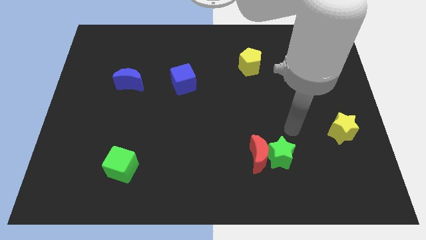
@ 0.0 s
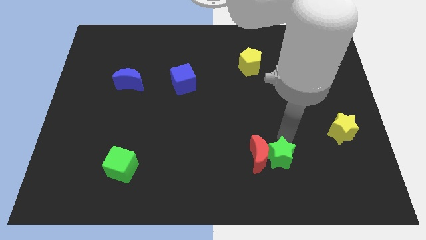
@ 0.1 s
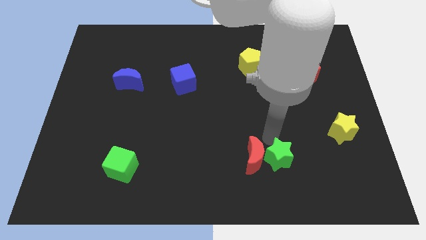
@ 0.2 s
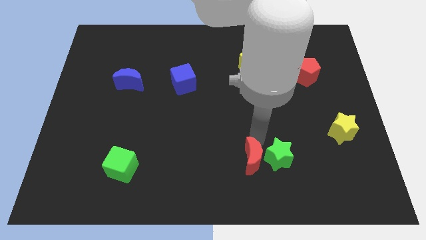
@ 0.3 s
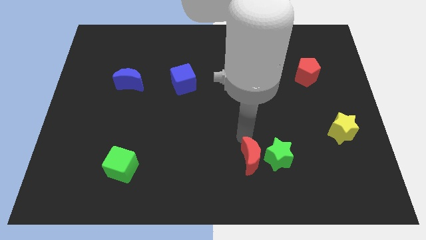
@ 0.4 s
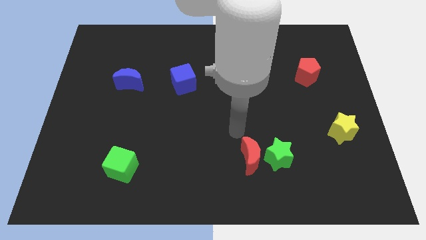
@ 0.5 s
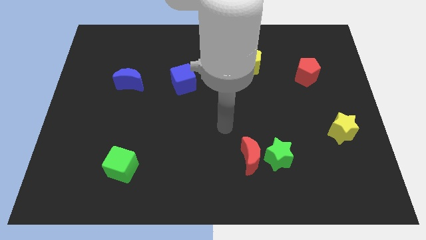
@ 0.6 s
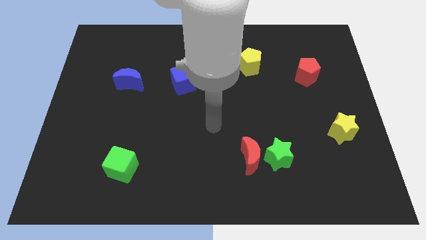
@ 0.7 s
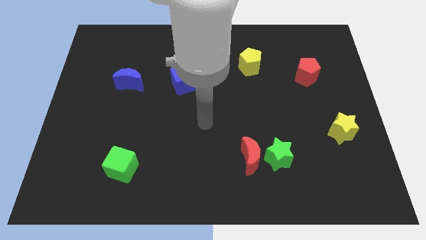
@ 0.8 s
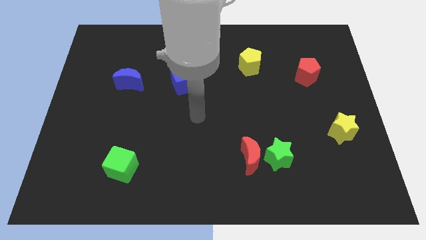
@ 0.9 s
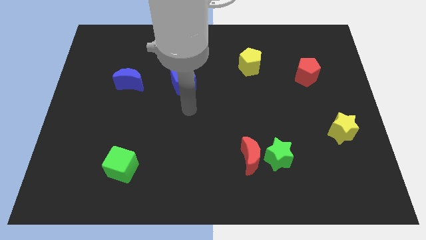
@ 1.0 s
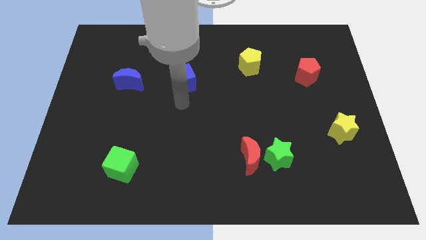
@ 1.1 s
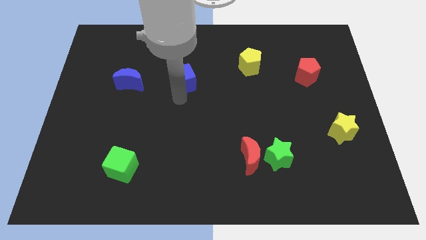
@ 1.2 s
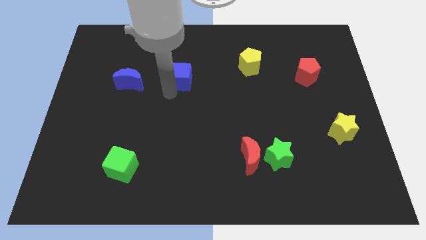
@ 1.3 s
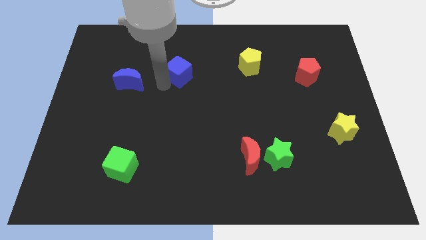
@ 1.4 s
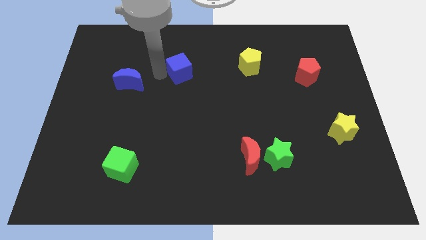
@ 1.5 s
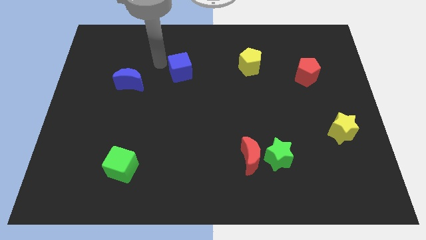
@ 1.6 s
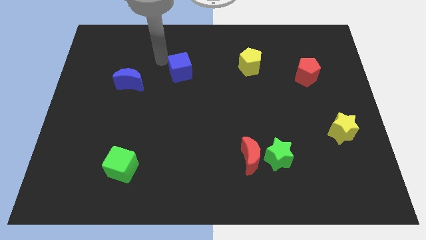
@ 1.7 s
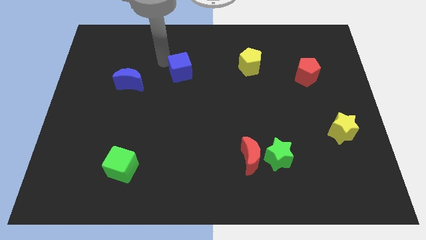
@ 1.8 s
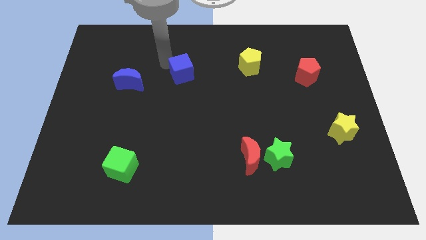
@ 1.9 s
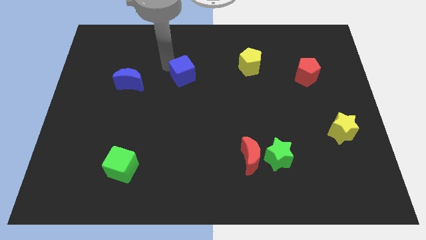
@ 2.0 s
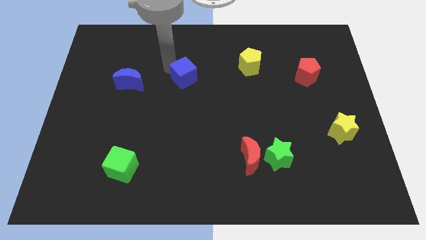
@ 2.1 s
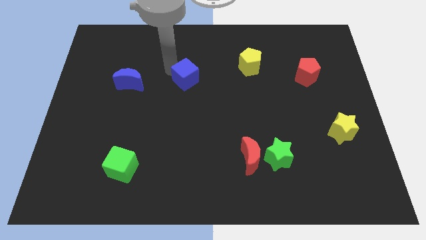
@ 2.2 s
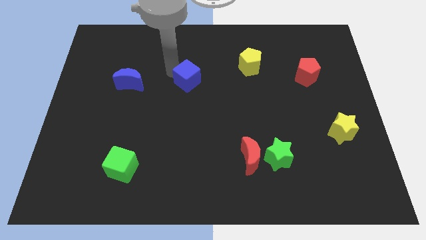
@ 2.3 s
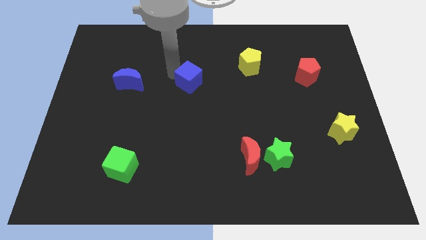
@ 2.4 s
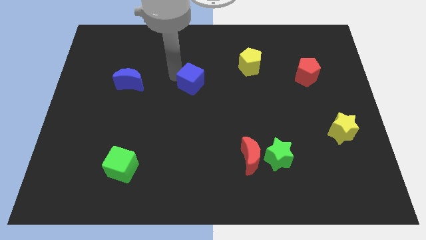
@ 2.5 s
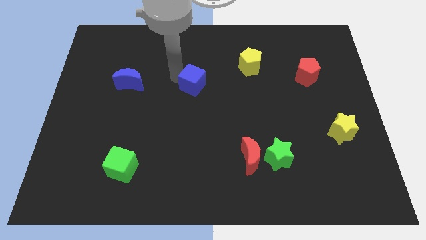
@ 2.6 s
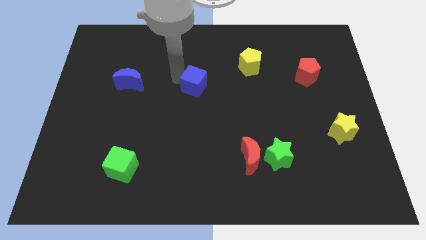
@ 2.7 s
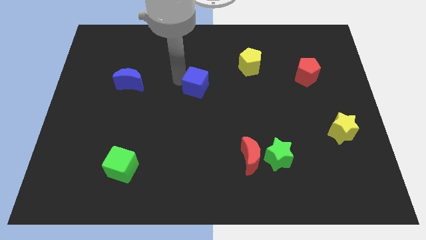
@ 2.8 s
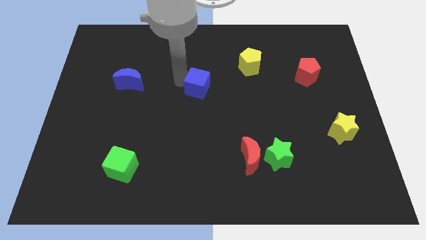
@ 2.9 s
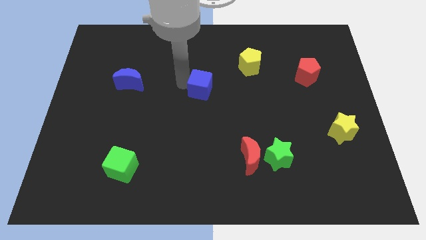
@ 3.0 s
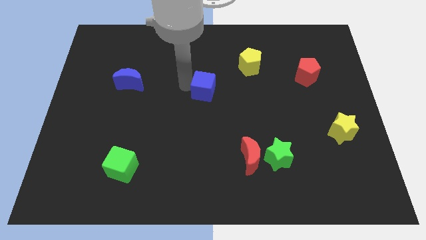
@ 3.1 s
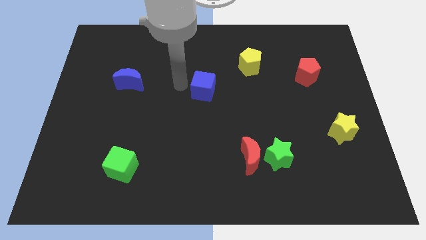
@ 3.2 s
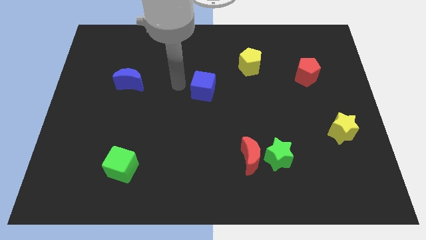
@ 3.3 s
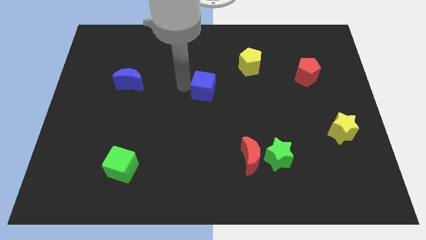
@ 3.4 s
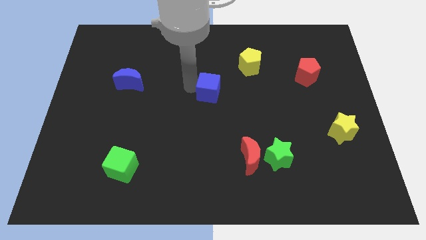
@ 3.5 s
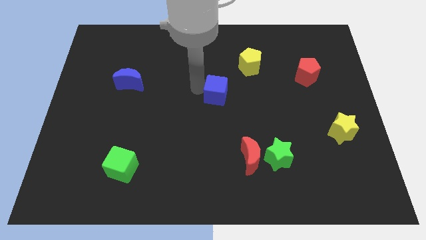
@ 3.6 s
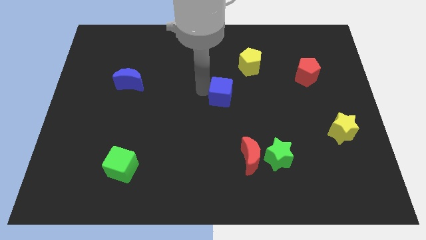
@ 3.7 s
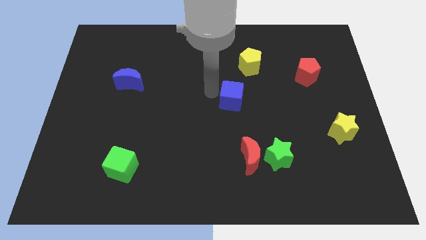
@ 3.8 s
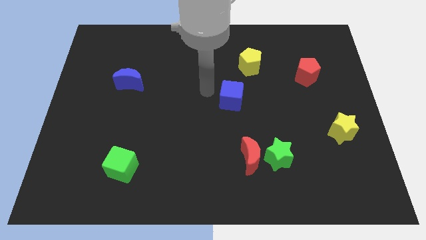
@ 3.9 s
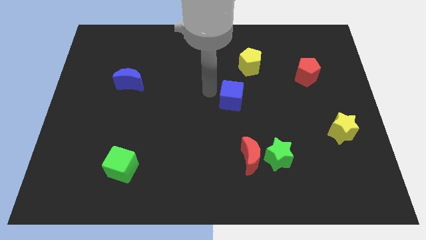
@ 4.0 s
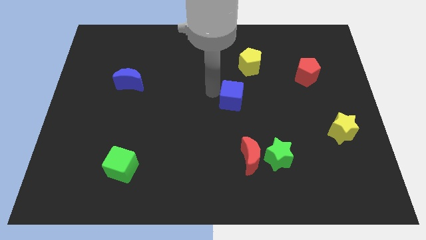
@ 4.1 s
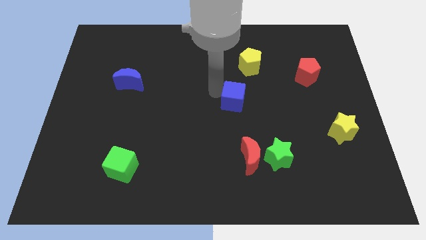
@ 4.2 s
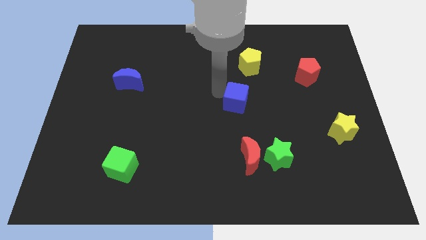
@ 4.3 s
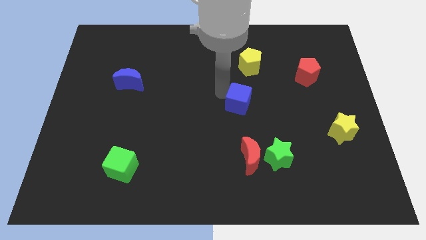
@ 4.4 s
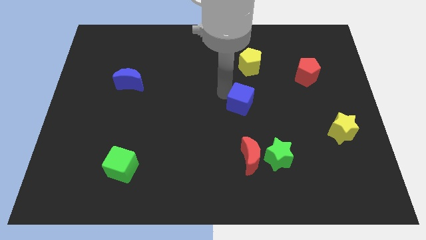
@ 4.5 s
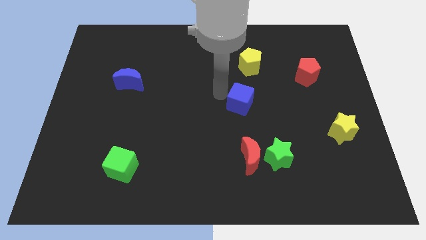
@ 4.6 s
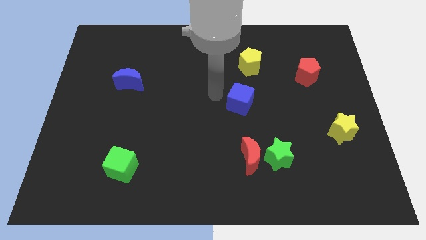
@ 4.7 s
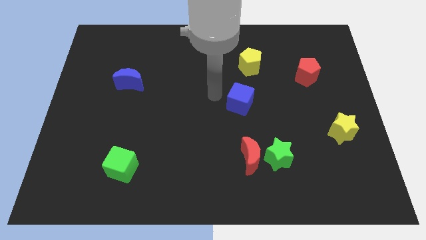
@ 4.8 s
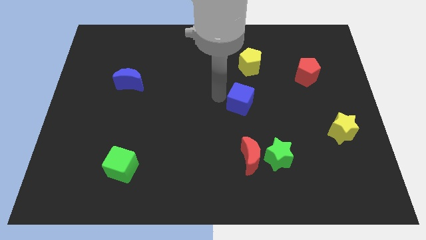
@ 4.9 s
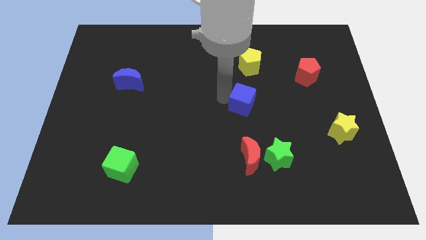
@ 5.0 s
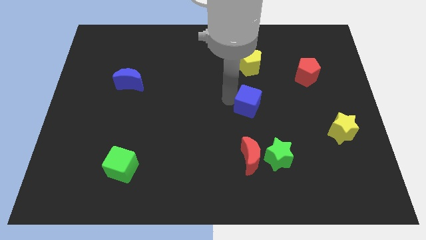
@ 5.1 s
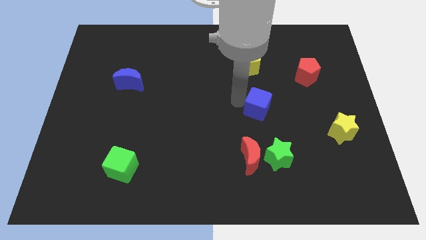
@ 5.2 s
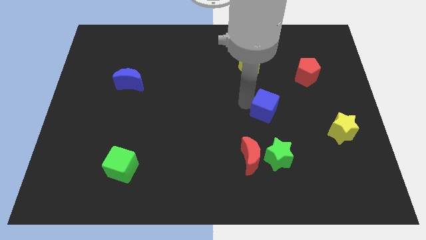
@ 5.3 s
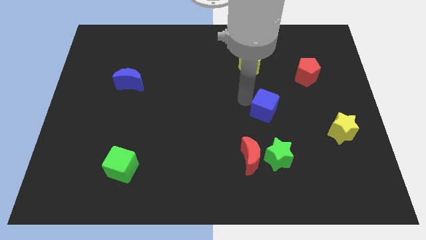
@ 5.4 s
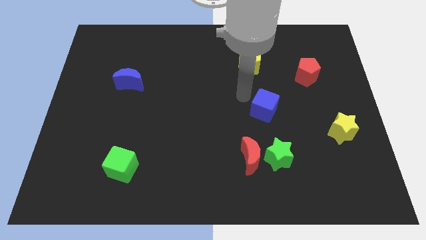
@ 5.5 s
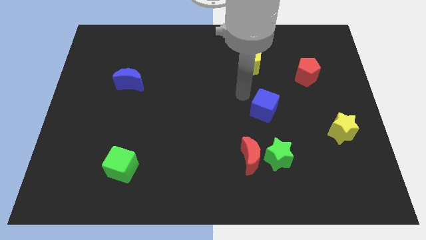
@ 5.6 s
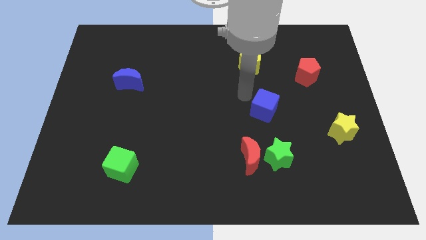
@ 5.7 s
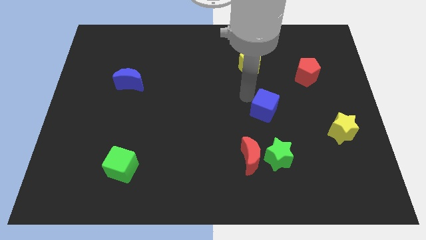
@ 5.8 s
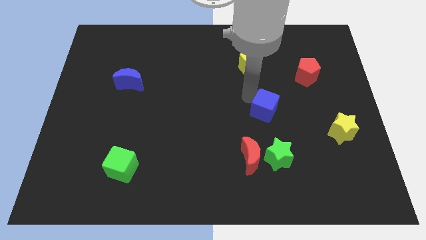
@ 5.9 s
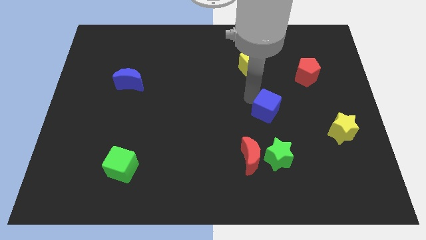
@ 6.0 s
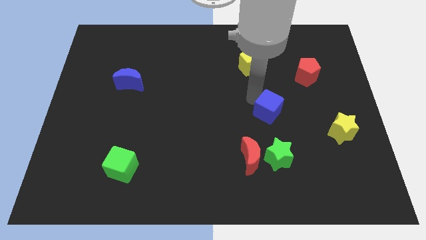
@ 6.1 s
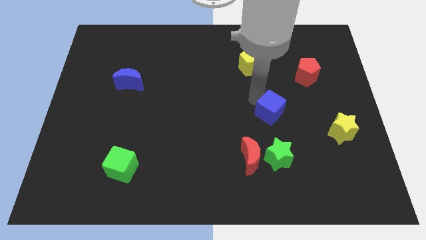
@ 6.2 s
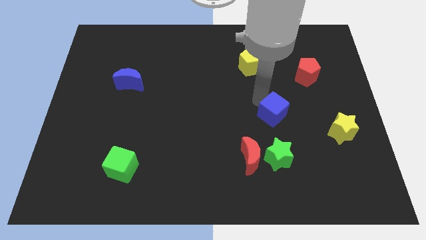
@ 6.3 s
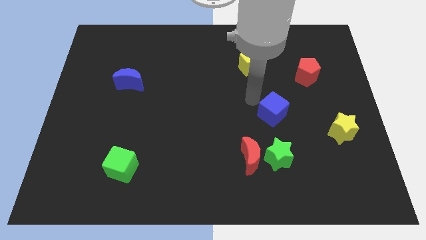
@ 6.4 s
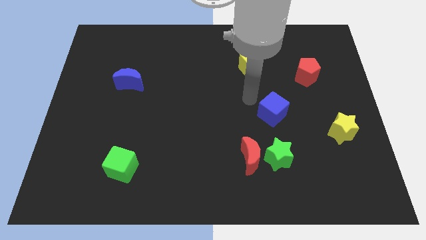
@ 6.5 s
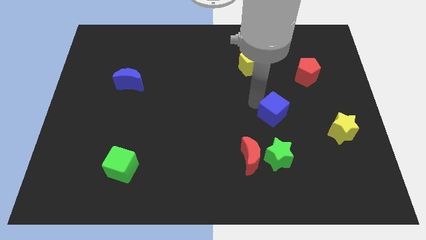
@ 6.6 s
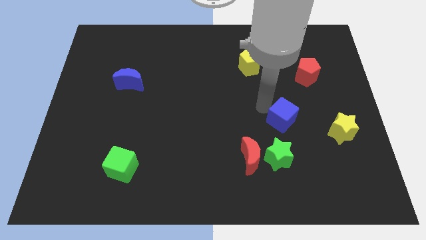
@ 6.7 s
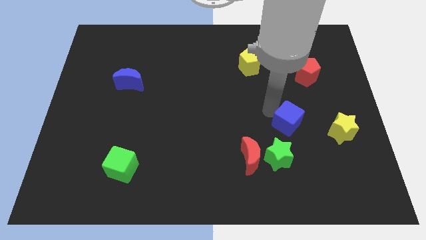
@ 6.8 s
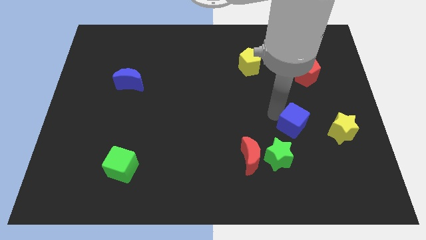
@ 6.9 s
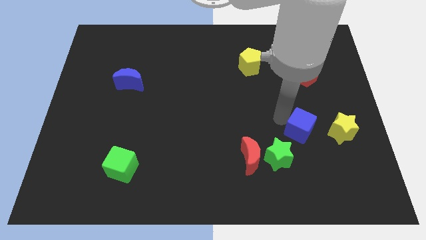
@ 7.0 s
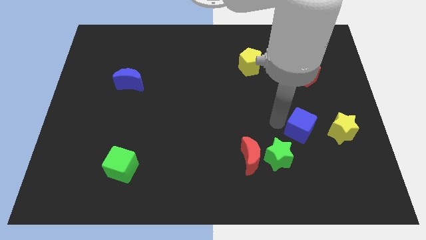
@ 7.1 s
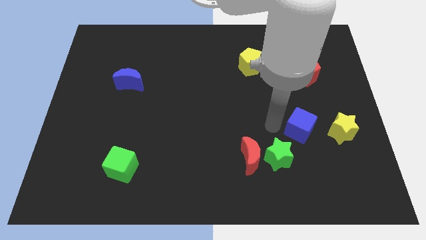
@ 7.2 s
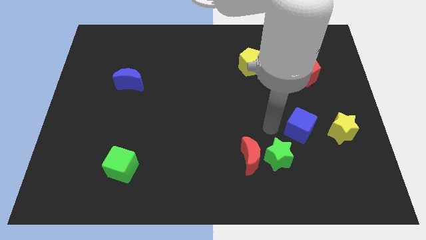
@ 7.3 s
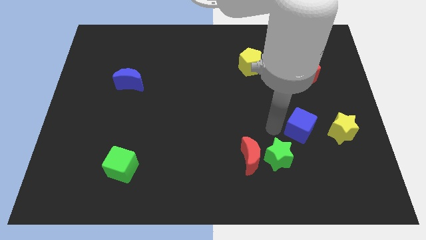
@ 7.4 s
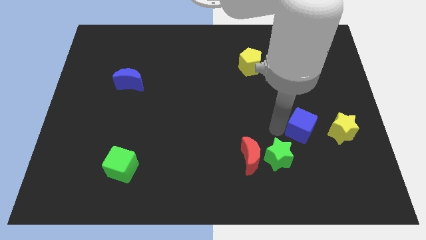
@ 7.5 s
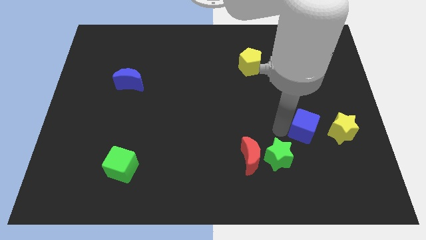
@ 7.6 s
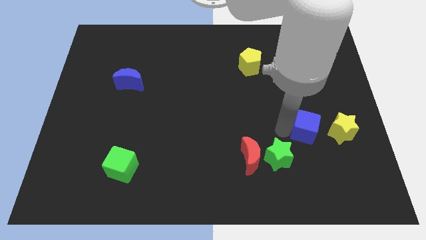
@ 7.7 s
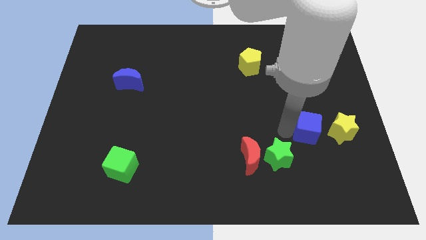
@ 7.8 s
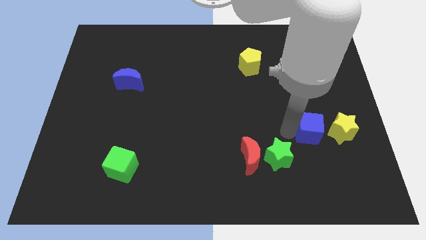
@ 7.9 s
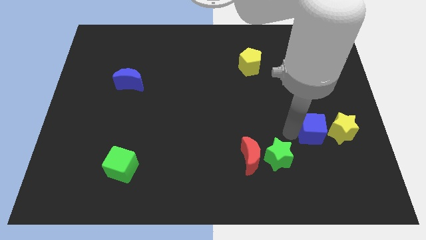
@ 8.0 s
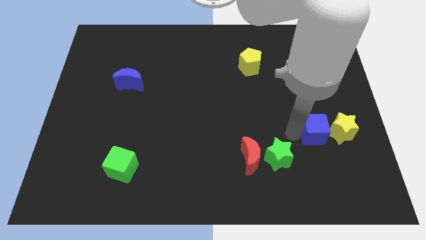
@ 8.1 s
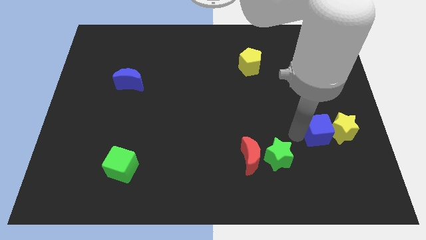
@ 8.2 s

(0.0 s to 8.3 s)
put the blue cube towards the yellow star
